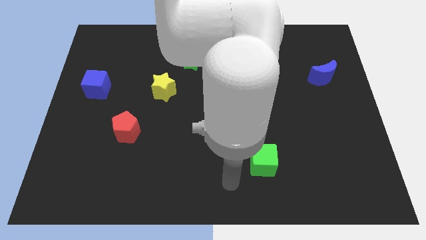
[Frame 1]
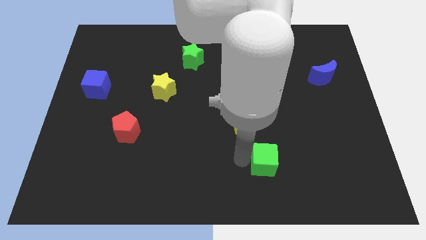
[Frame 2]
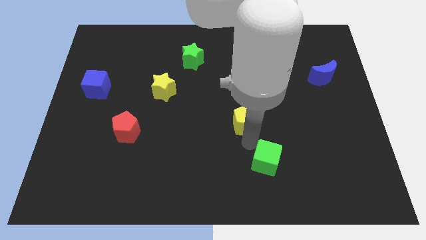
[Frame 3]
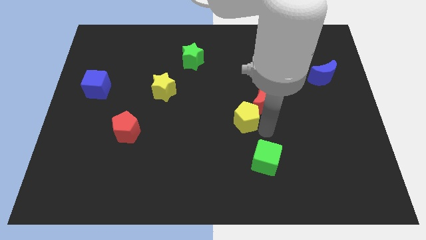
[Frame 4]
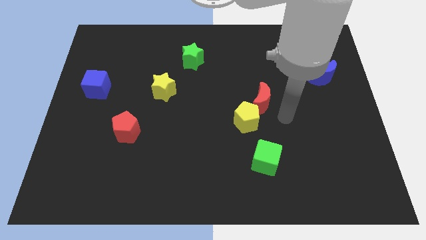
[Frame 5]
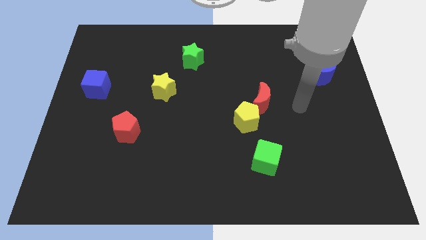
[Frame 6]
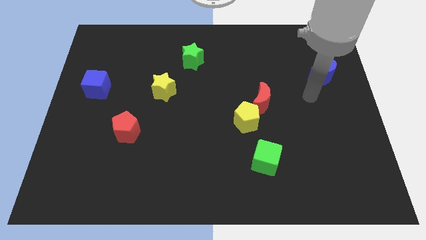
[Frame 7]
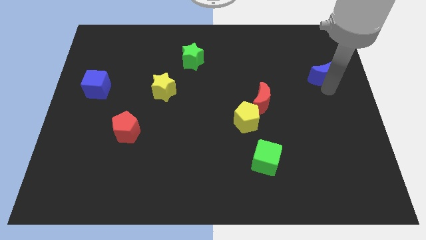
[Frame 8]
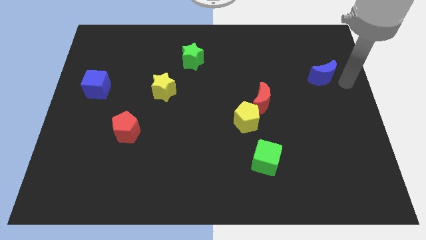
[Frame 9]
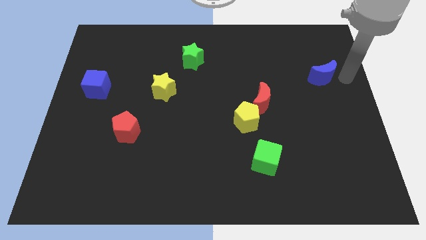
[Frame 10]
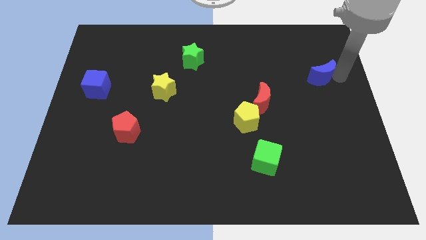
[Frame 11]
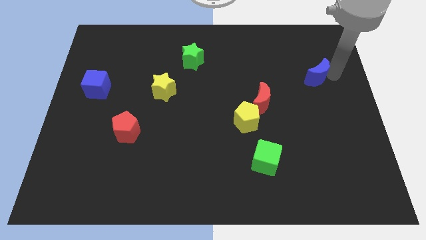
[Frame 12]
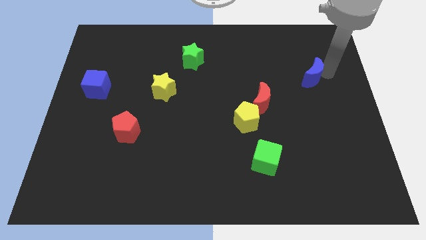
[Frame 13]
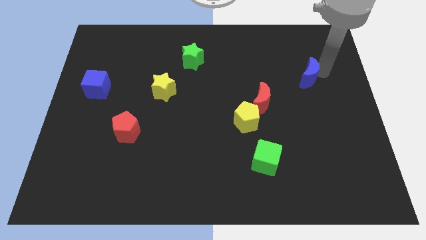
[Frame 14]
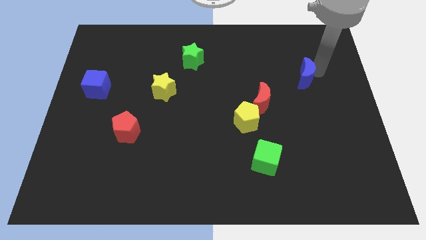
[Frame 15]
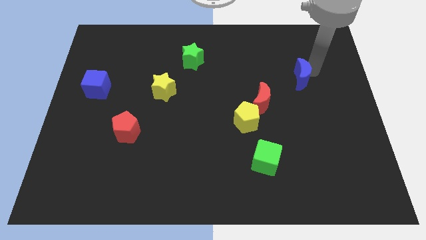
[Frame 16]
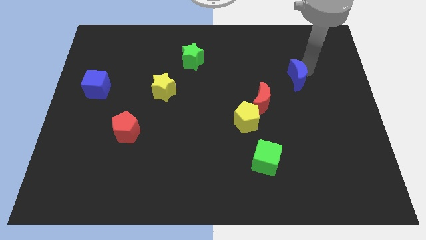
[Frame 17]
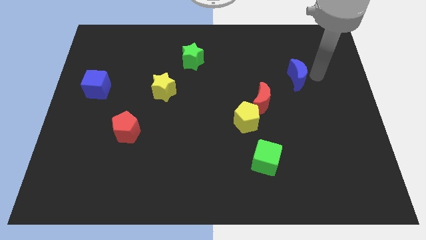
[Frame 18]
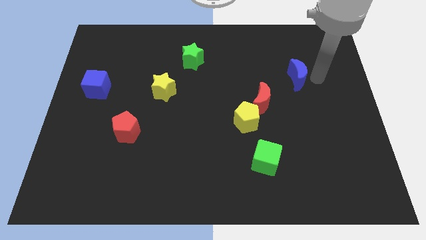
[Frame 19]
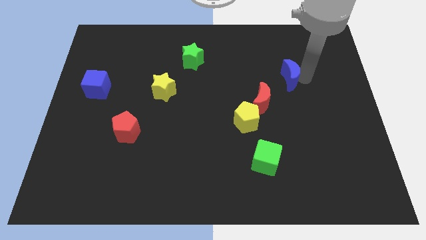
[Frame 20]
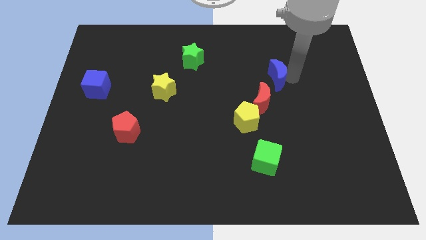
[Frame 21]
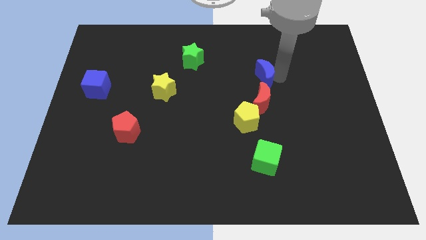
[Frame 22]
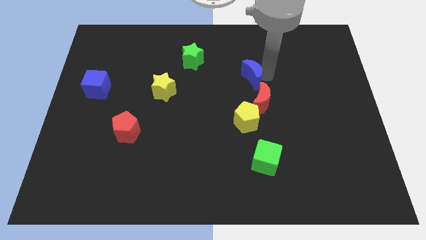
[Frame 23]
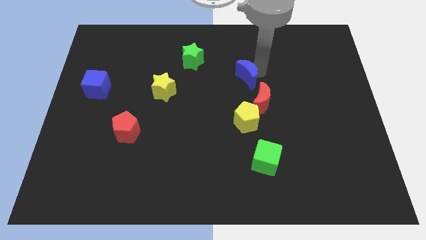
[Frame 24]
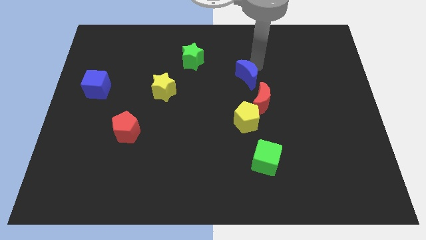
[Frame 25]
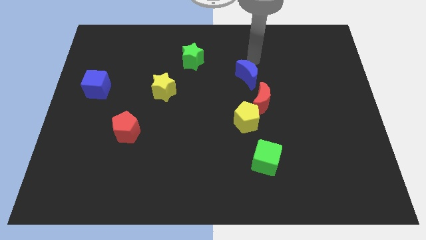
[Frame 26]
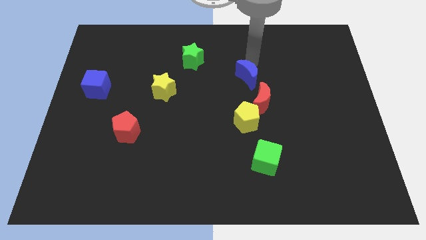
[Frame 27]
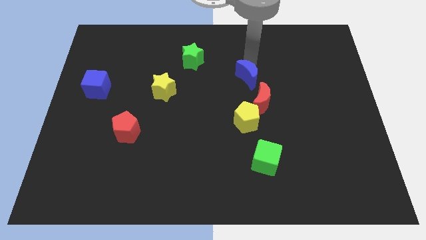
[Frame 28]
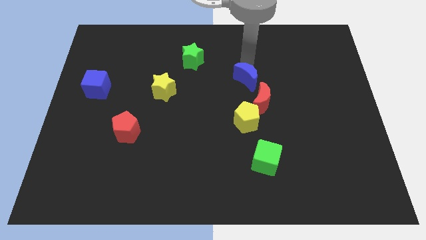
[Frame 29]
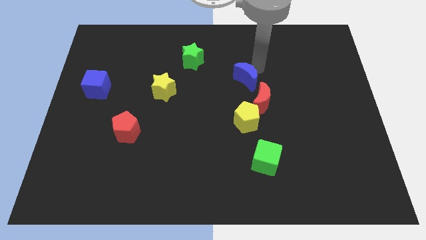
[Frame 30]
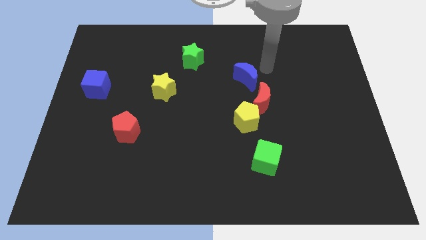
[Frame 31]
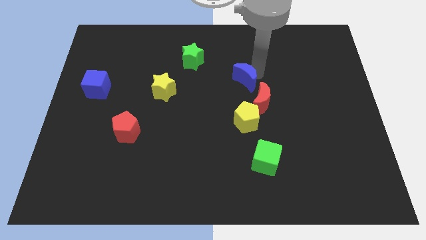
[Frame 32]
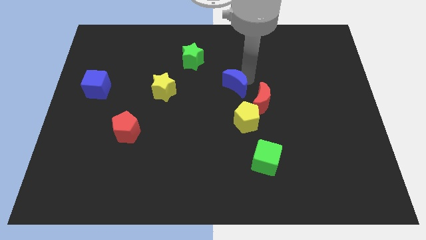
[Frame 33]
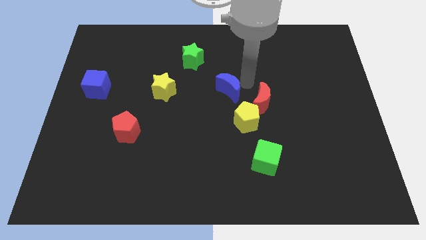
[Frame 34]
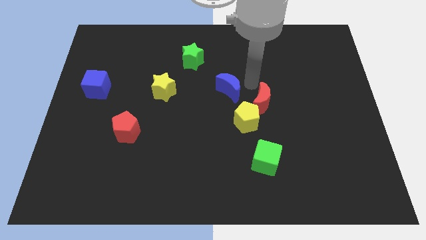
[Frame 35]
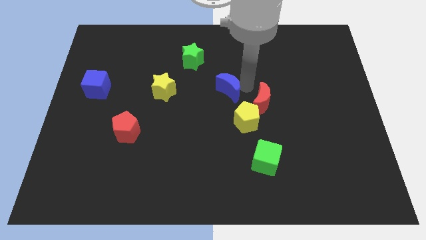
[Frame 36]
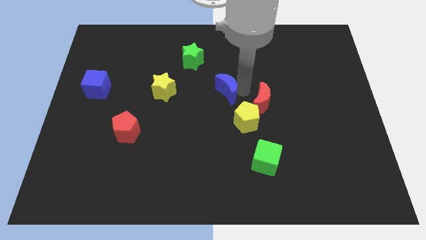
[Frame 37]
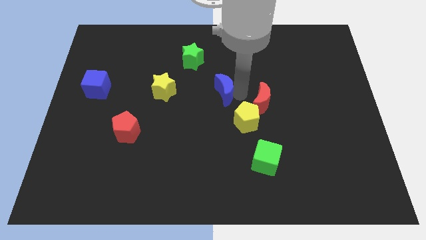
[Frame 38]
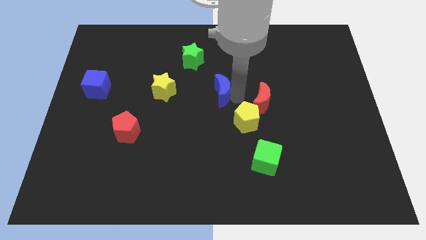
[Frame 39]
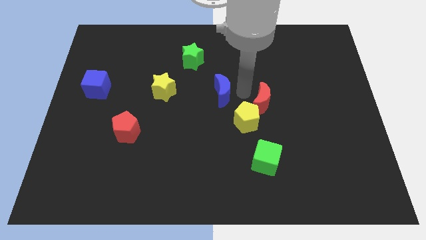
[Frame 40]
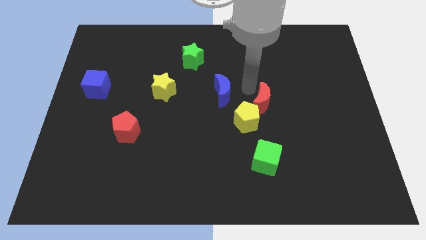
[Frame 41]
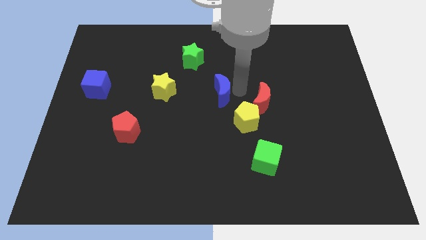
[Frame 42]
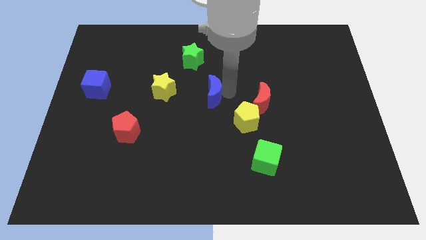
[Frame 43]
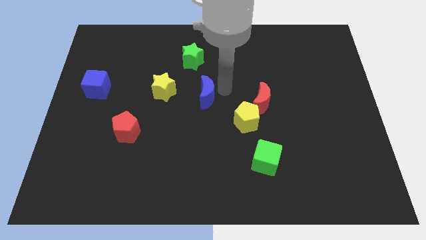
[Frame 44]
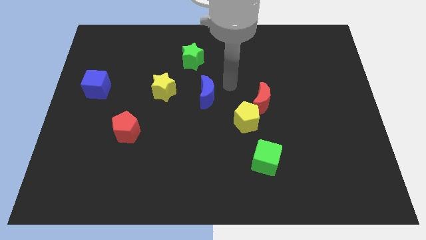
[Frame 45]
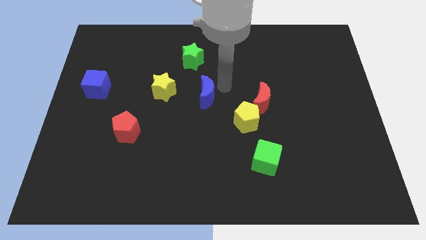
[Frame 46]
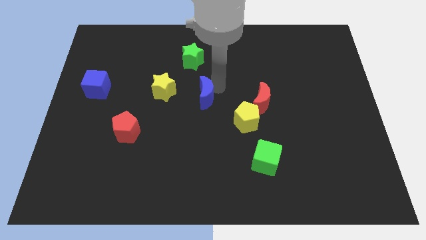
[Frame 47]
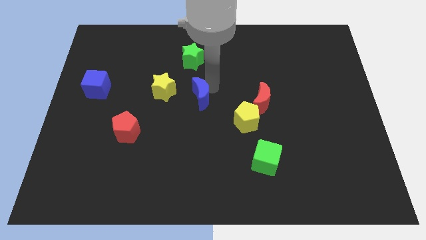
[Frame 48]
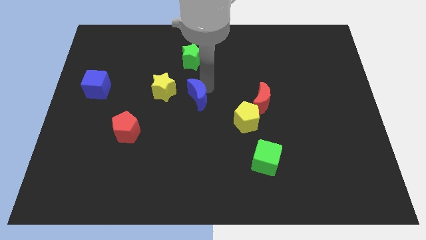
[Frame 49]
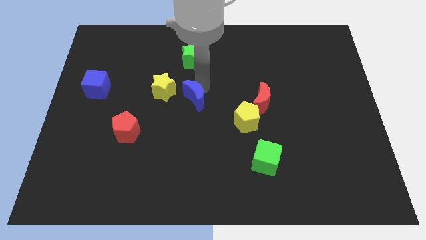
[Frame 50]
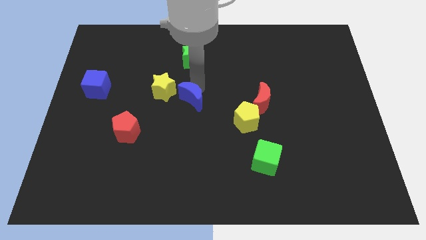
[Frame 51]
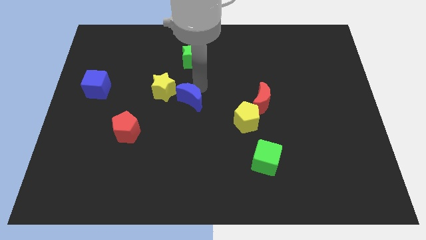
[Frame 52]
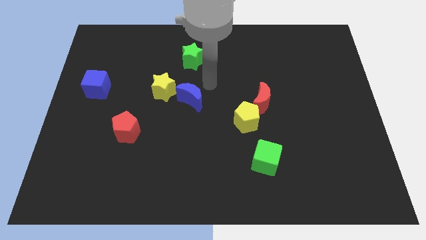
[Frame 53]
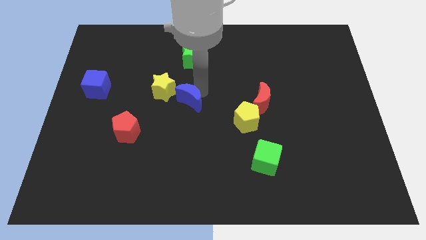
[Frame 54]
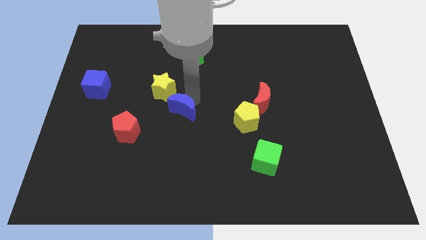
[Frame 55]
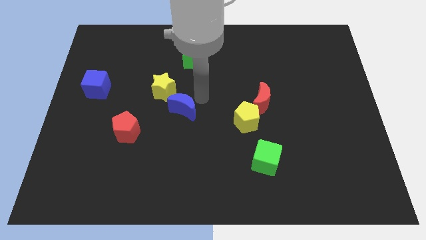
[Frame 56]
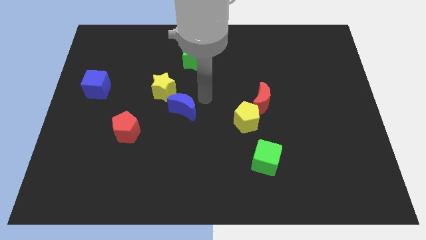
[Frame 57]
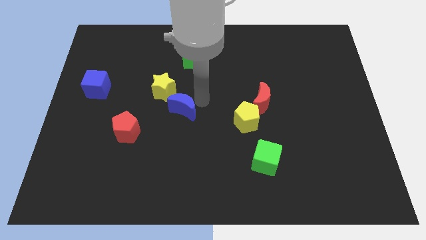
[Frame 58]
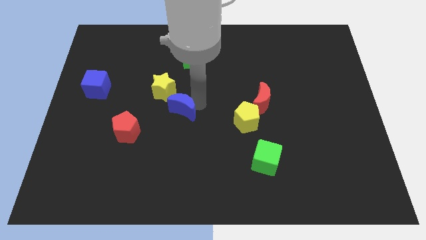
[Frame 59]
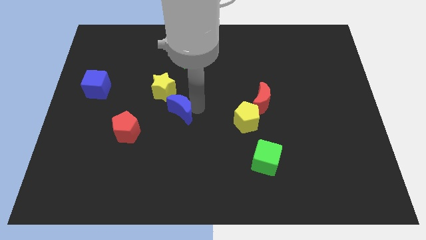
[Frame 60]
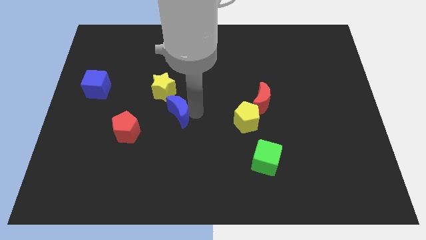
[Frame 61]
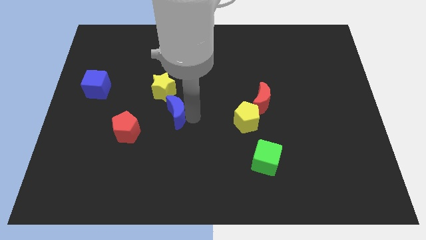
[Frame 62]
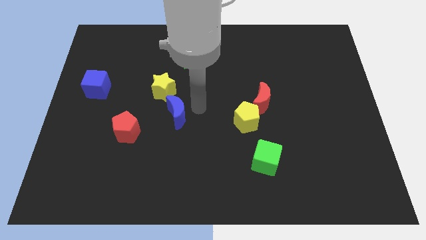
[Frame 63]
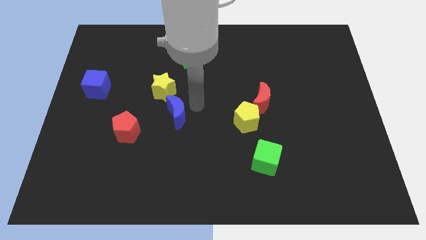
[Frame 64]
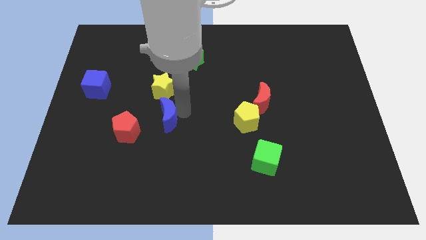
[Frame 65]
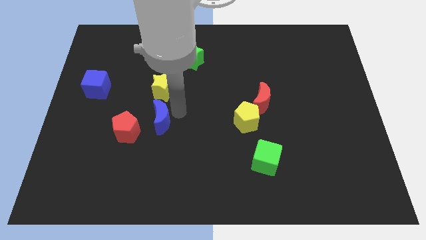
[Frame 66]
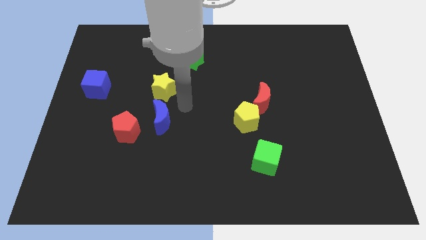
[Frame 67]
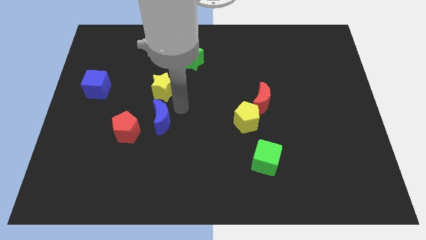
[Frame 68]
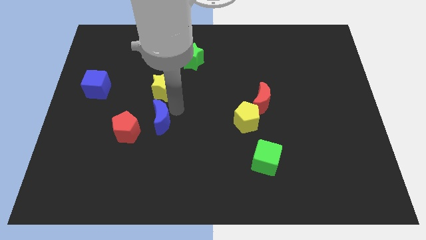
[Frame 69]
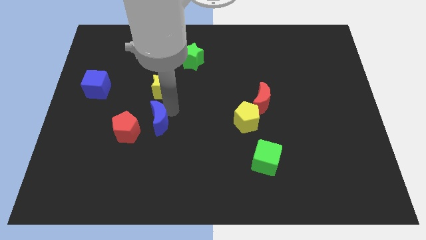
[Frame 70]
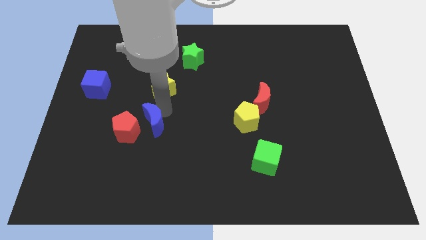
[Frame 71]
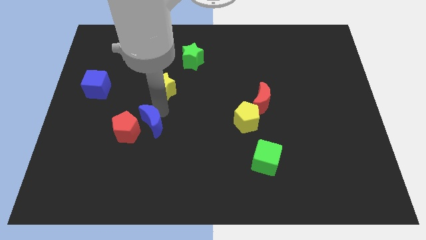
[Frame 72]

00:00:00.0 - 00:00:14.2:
push the blue moon next to the red pentagon
